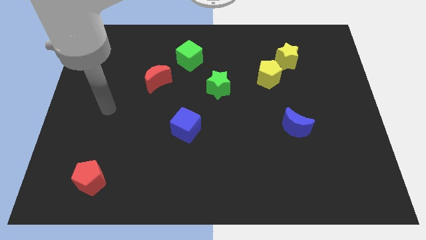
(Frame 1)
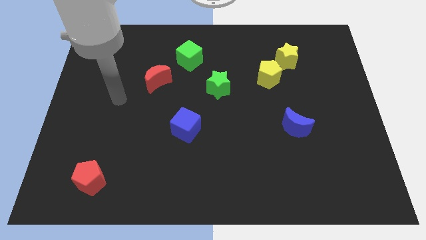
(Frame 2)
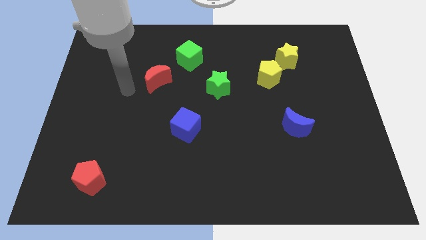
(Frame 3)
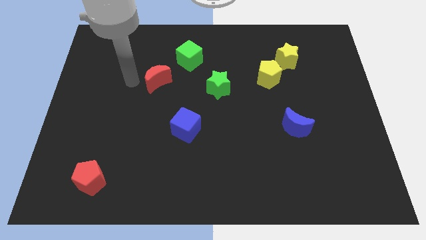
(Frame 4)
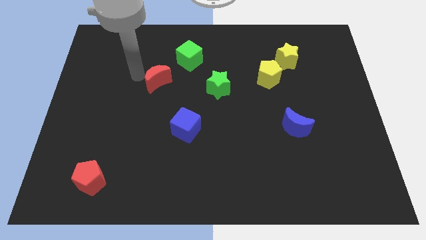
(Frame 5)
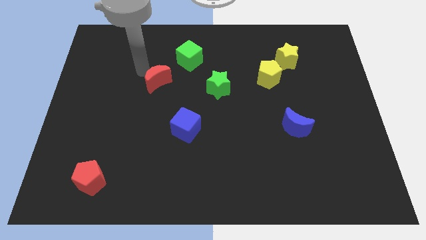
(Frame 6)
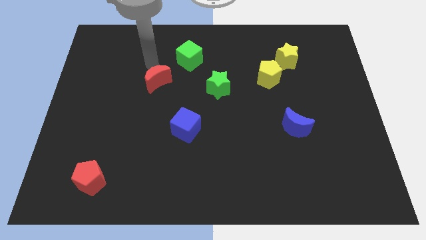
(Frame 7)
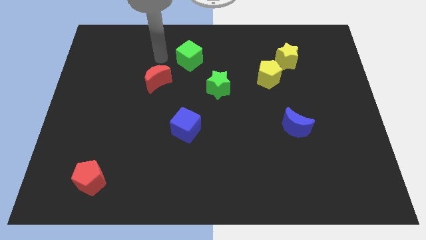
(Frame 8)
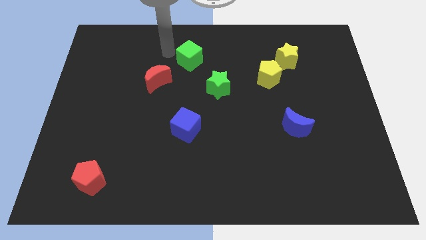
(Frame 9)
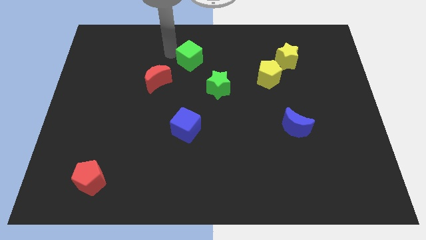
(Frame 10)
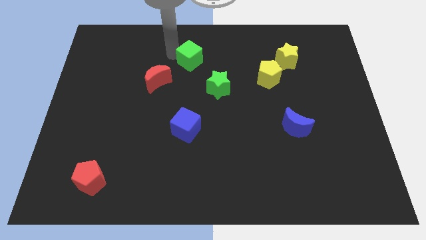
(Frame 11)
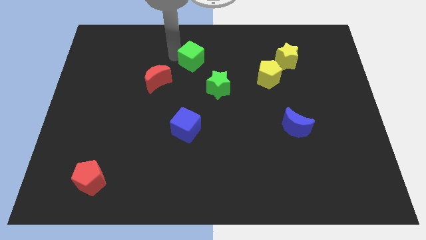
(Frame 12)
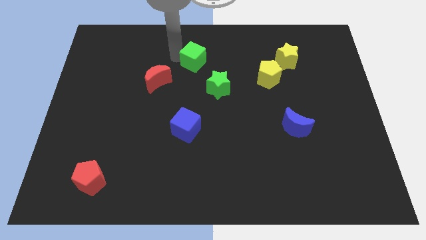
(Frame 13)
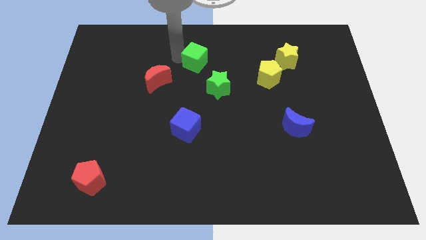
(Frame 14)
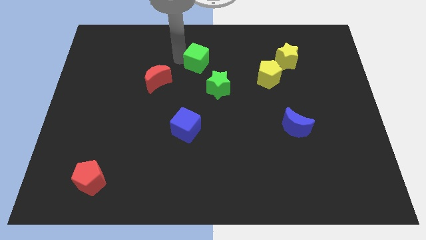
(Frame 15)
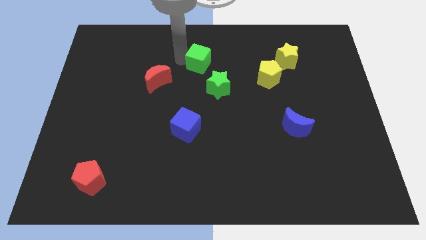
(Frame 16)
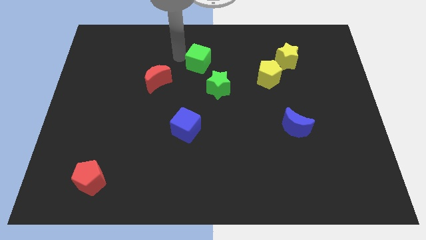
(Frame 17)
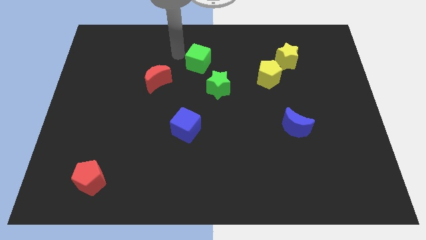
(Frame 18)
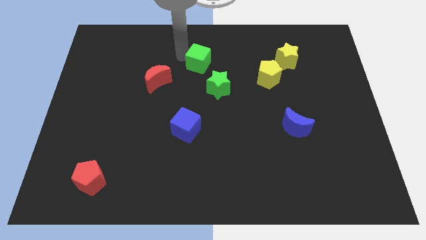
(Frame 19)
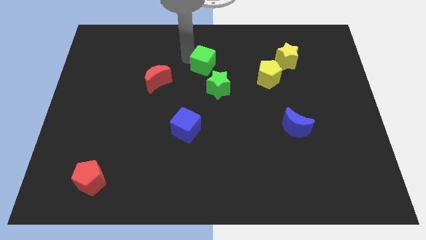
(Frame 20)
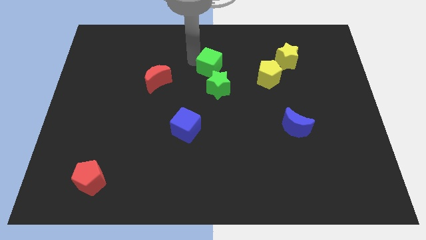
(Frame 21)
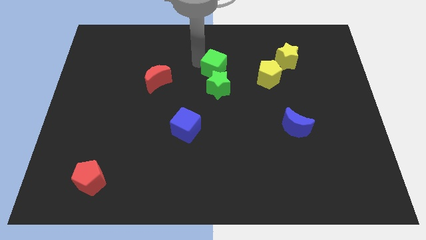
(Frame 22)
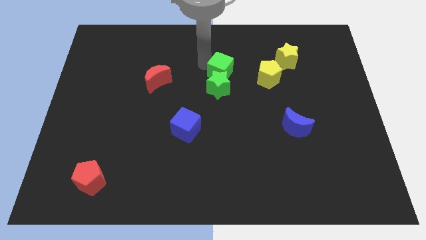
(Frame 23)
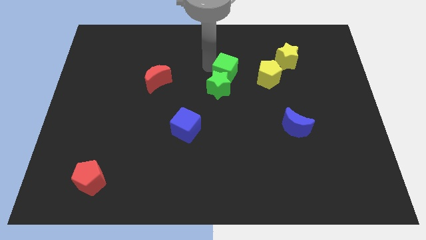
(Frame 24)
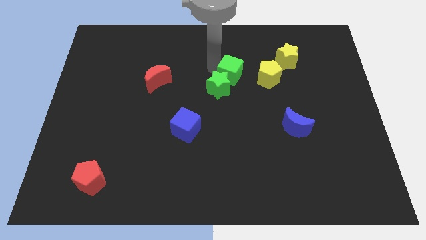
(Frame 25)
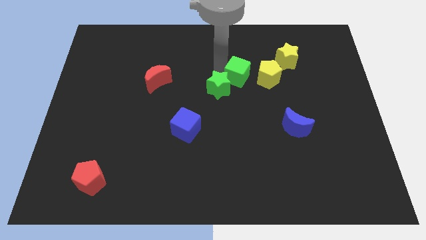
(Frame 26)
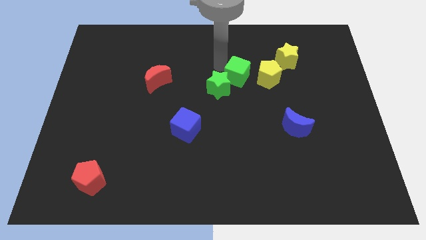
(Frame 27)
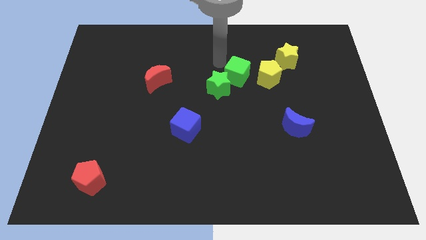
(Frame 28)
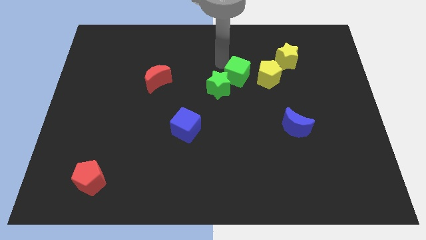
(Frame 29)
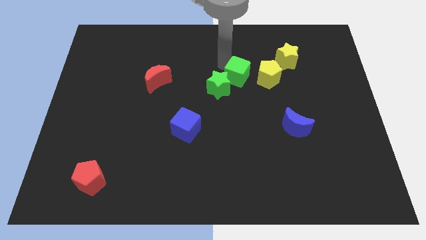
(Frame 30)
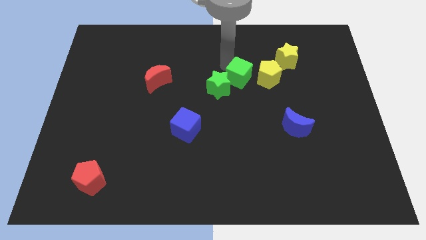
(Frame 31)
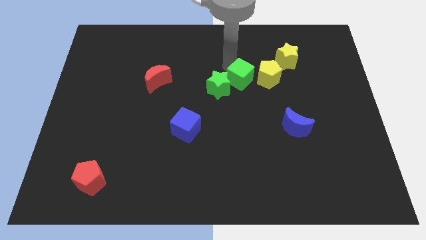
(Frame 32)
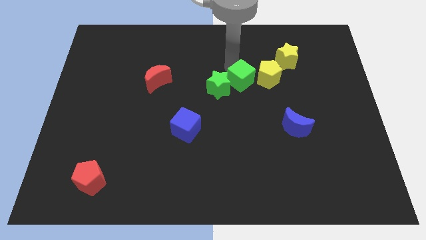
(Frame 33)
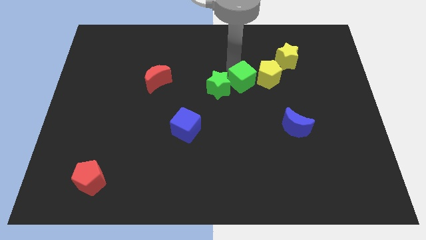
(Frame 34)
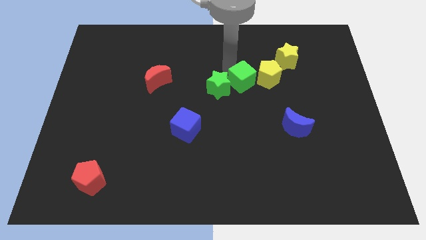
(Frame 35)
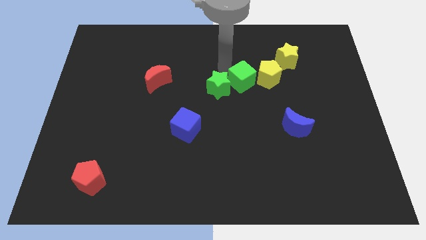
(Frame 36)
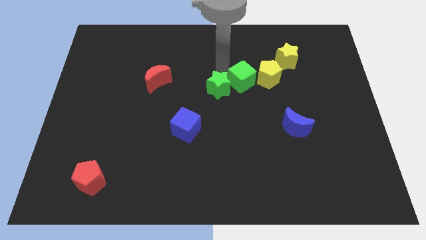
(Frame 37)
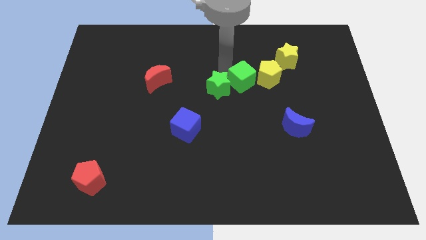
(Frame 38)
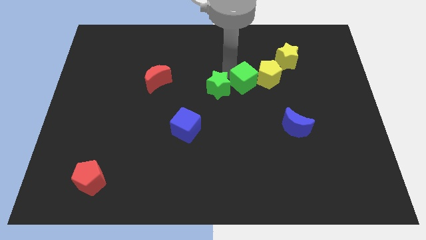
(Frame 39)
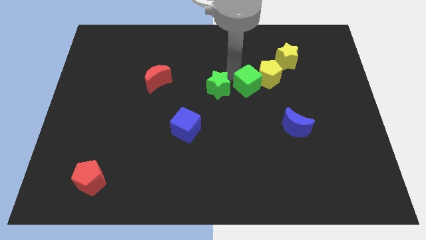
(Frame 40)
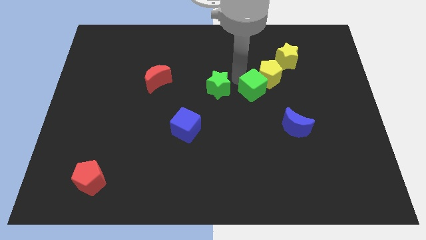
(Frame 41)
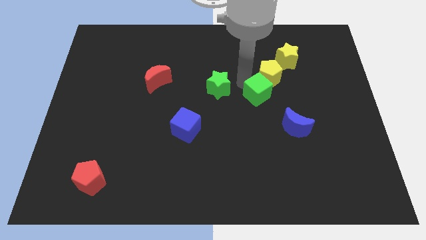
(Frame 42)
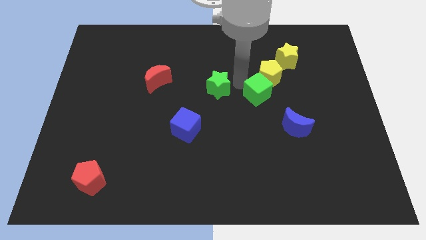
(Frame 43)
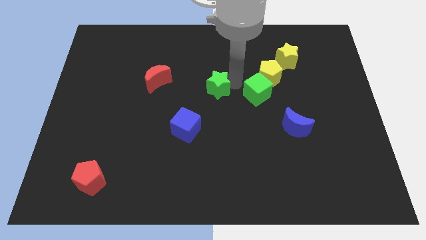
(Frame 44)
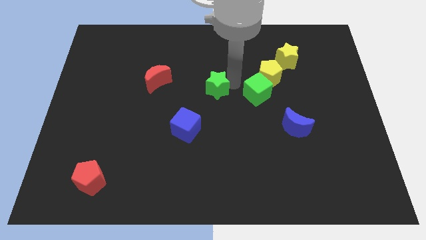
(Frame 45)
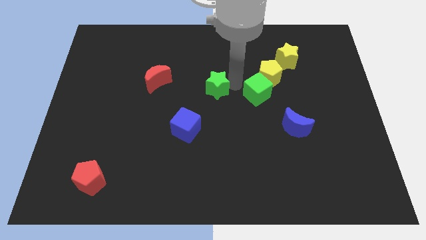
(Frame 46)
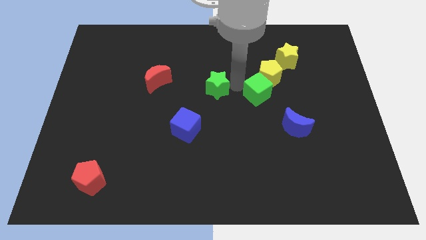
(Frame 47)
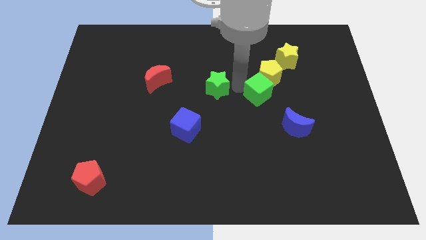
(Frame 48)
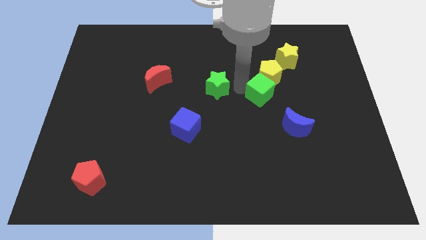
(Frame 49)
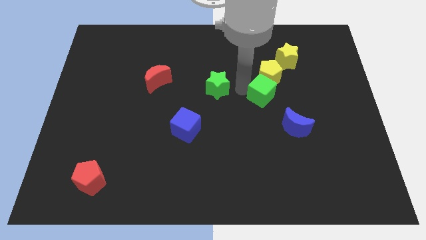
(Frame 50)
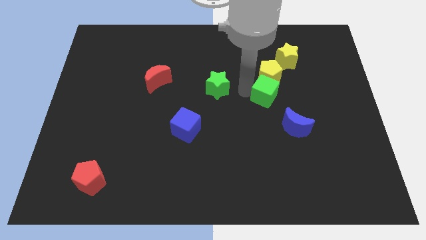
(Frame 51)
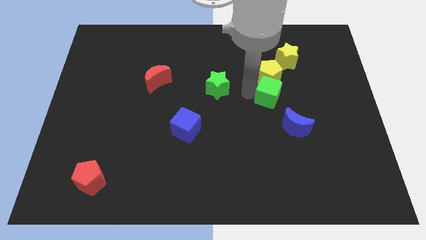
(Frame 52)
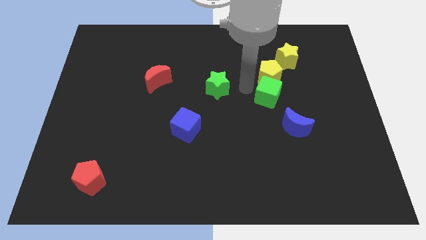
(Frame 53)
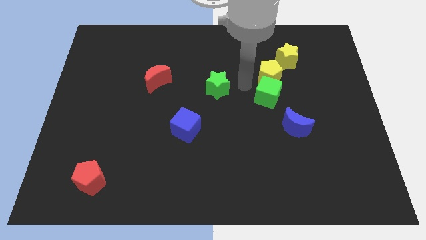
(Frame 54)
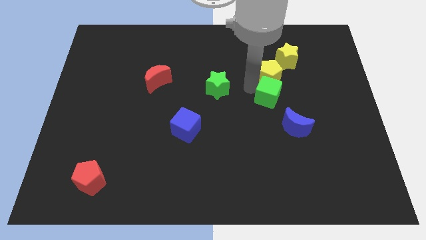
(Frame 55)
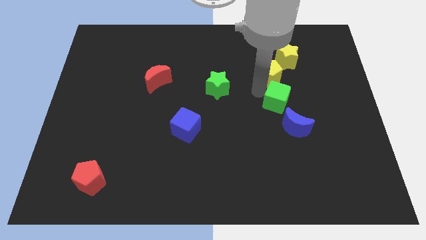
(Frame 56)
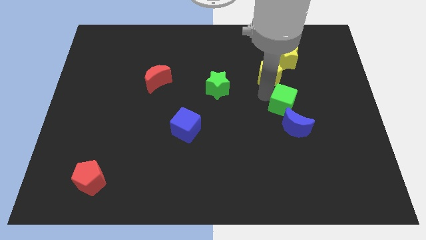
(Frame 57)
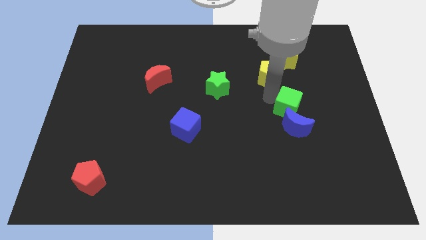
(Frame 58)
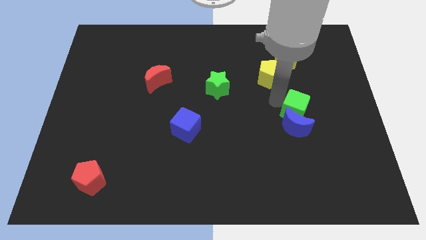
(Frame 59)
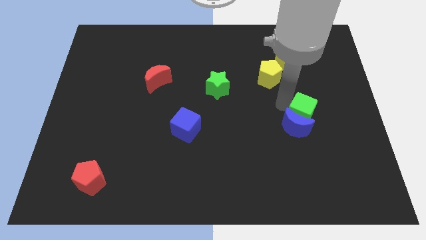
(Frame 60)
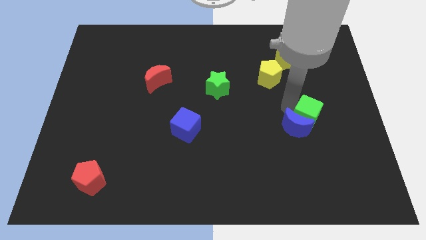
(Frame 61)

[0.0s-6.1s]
push the green cube to the right side of the blue moon

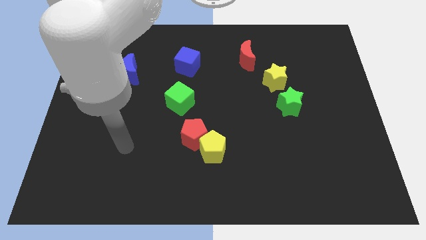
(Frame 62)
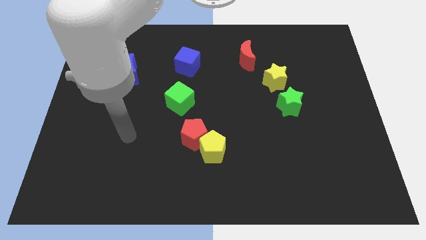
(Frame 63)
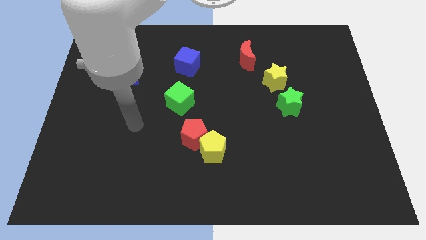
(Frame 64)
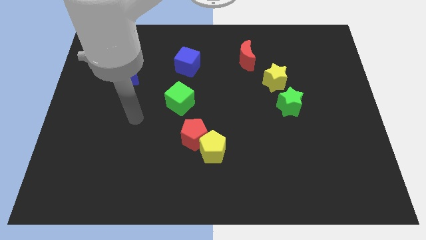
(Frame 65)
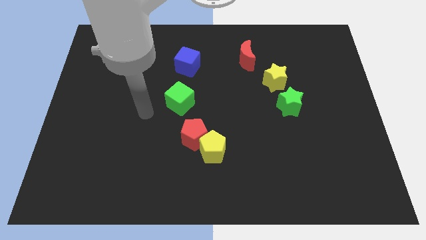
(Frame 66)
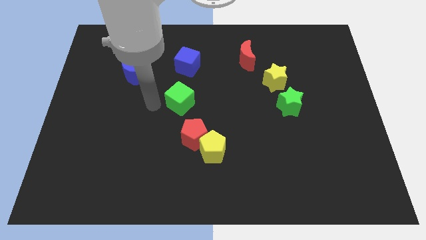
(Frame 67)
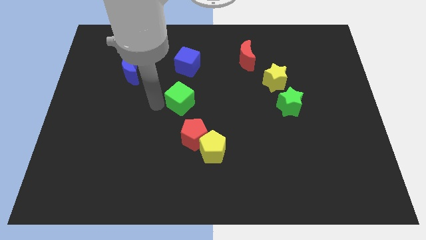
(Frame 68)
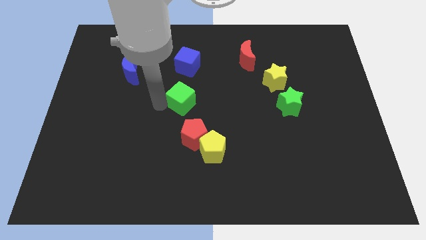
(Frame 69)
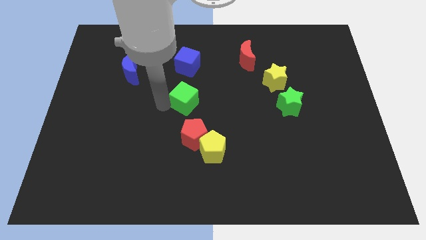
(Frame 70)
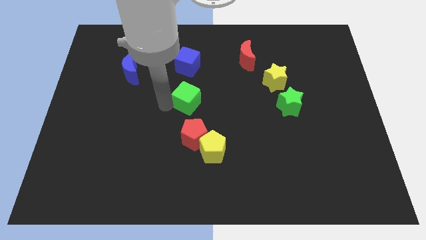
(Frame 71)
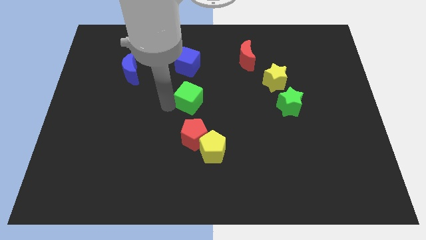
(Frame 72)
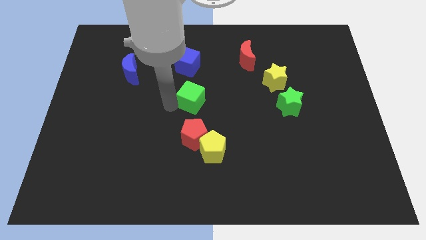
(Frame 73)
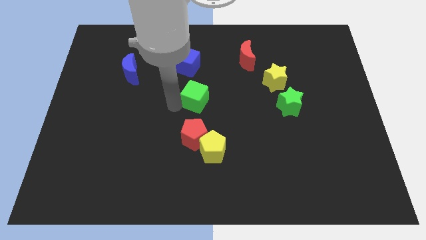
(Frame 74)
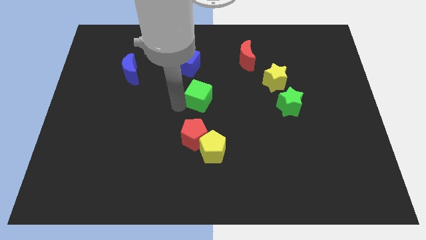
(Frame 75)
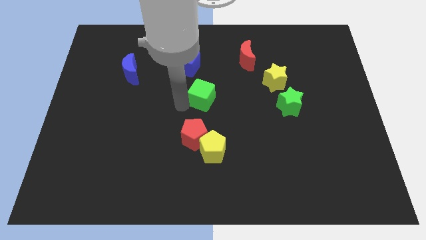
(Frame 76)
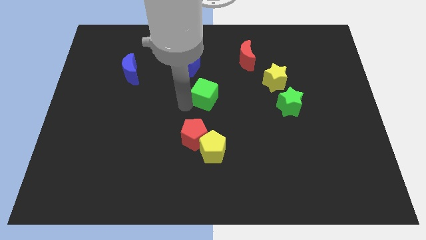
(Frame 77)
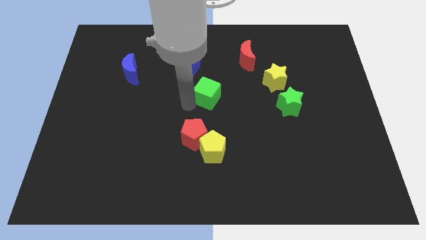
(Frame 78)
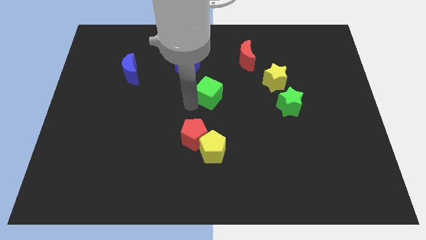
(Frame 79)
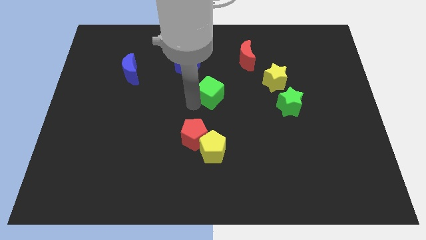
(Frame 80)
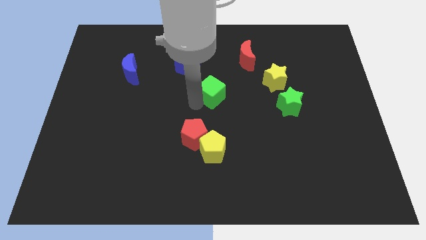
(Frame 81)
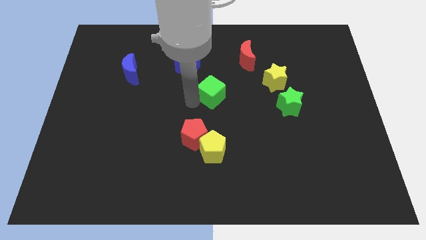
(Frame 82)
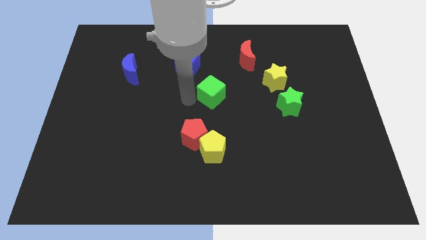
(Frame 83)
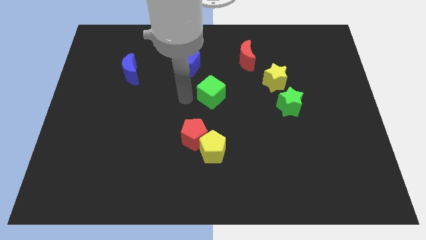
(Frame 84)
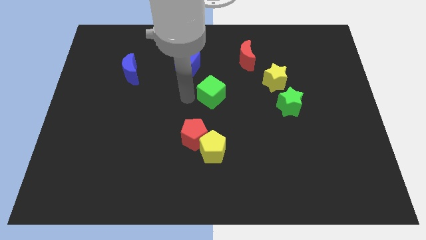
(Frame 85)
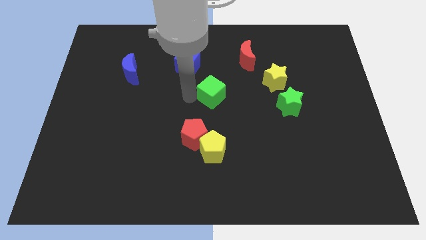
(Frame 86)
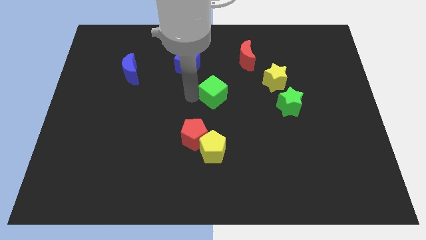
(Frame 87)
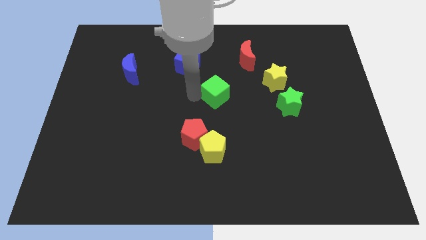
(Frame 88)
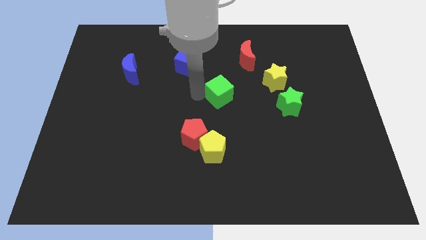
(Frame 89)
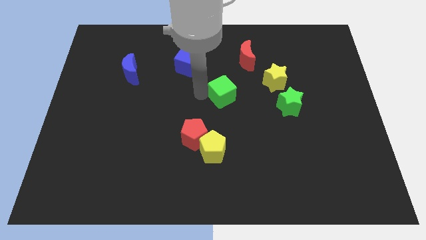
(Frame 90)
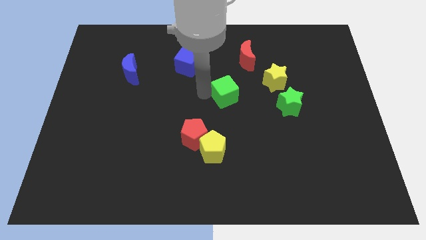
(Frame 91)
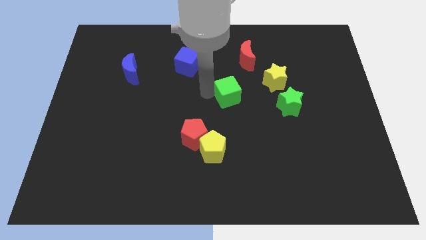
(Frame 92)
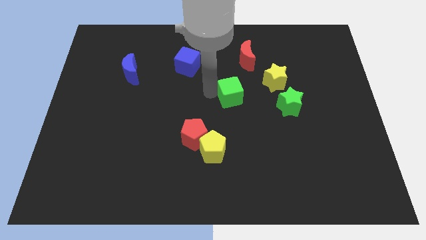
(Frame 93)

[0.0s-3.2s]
put the green cube below the red moon
